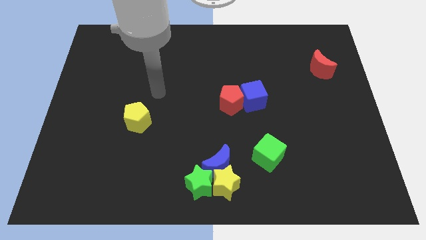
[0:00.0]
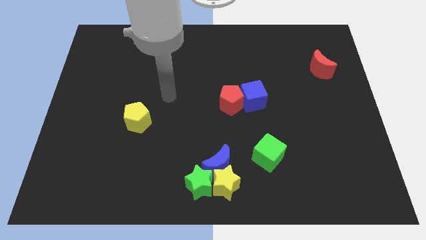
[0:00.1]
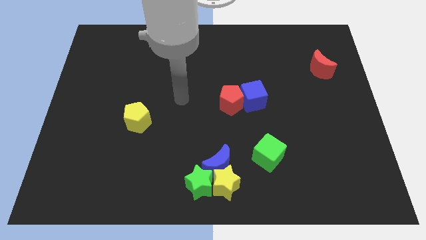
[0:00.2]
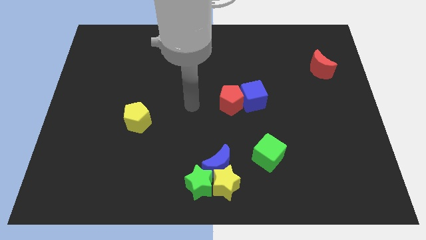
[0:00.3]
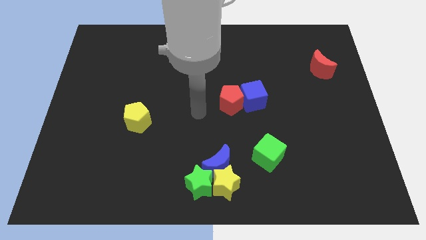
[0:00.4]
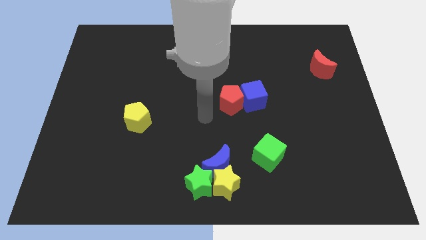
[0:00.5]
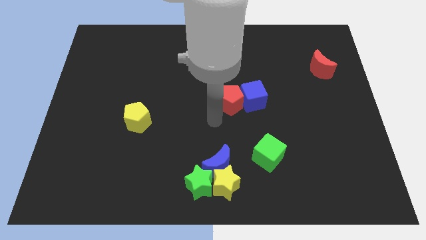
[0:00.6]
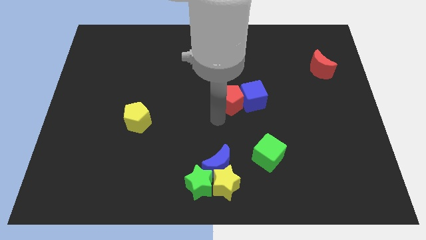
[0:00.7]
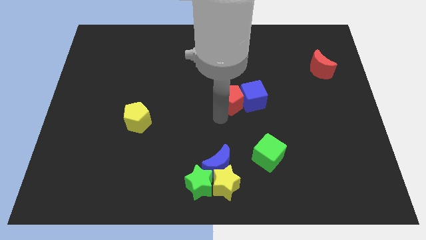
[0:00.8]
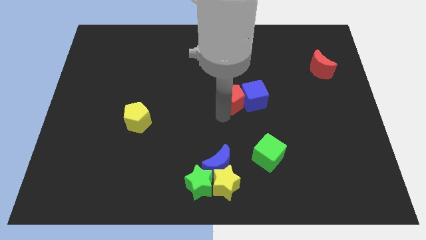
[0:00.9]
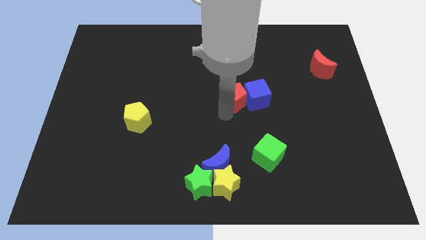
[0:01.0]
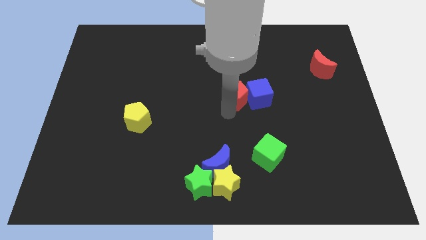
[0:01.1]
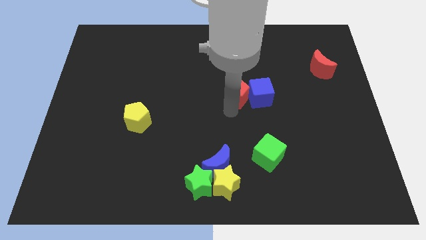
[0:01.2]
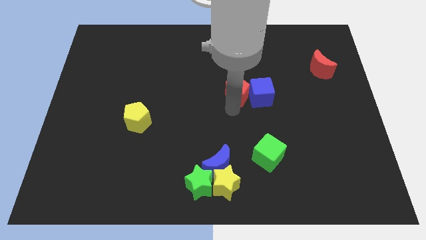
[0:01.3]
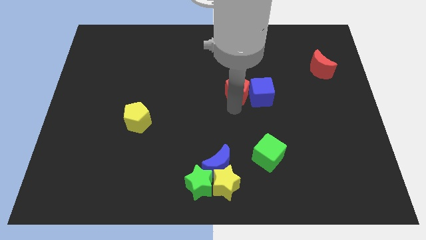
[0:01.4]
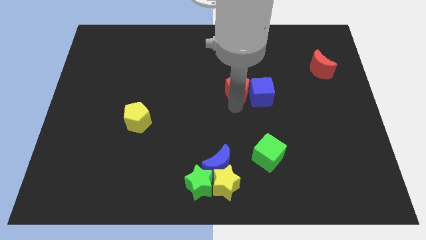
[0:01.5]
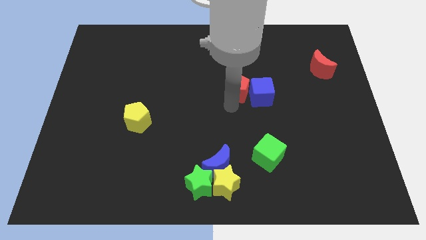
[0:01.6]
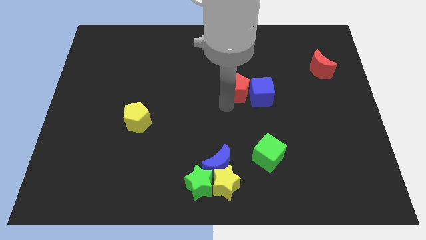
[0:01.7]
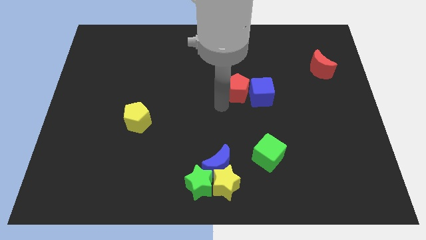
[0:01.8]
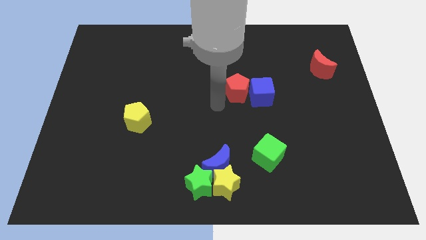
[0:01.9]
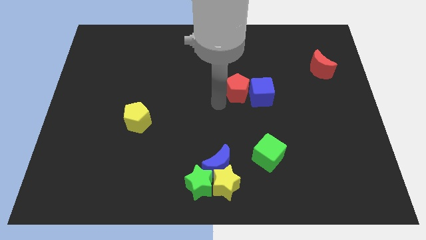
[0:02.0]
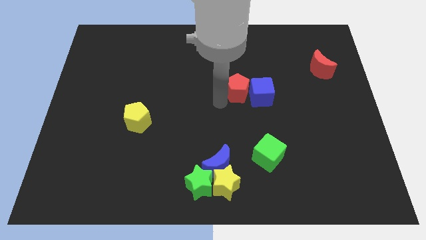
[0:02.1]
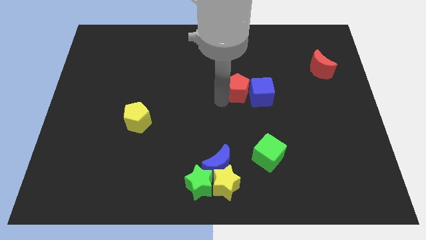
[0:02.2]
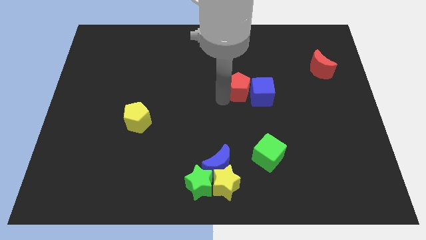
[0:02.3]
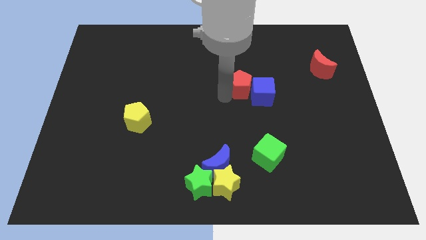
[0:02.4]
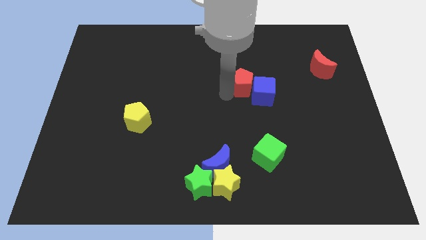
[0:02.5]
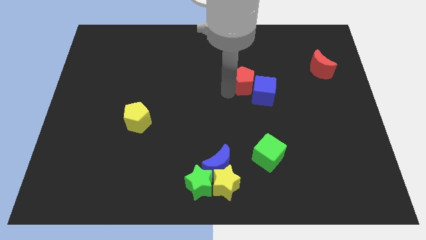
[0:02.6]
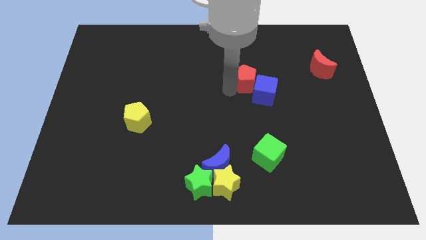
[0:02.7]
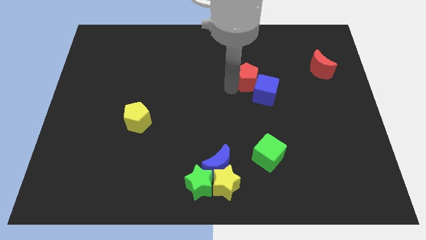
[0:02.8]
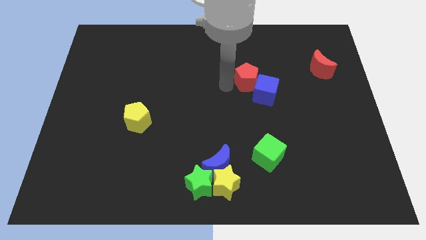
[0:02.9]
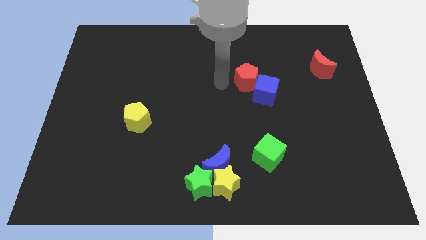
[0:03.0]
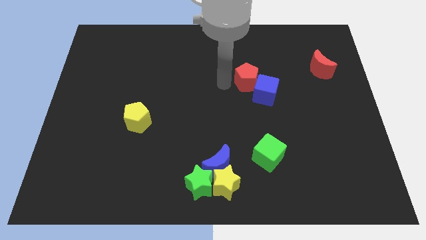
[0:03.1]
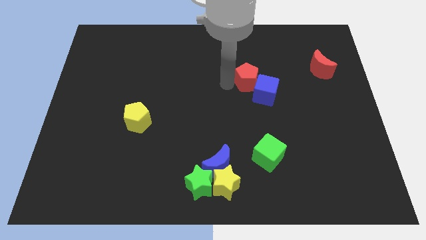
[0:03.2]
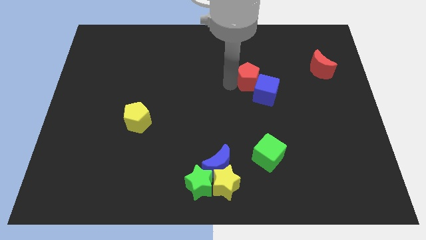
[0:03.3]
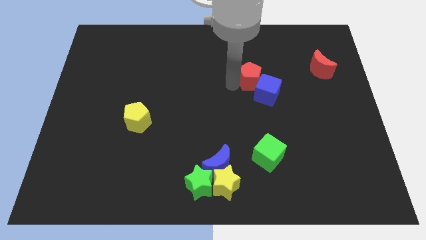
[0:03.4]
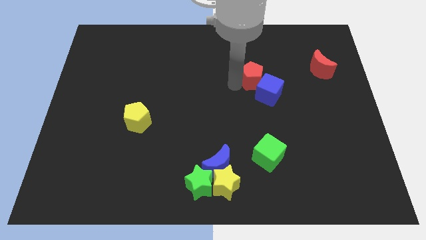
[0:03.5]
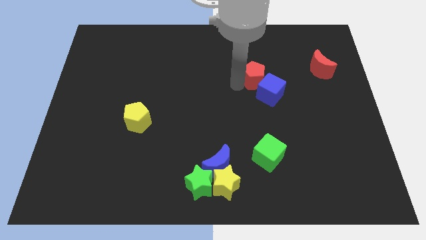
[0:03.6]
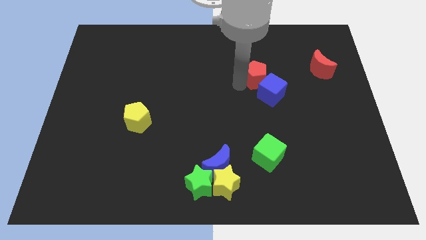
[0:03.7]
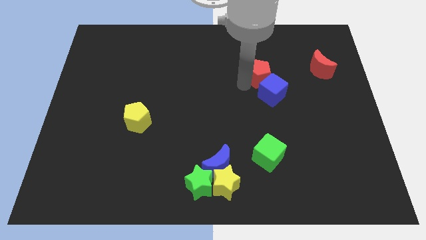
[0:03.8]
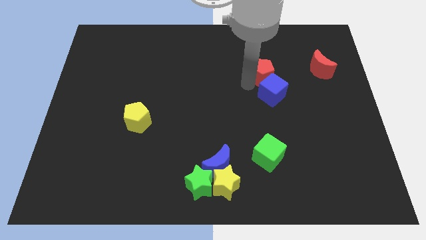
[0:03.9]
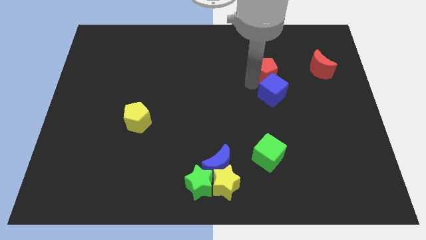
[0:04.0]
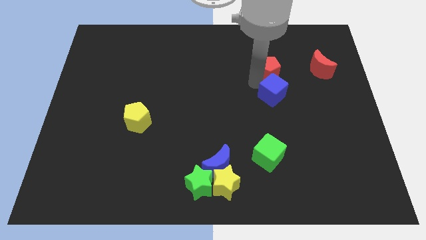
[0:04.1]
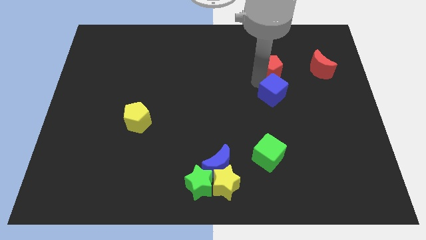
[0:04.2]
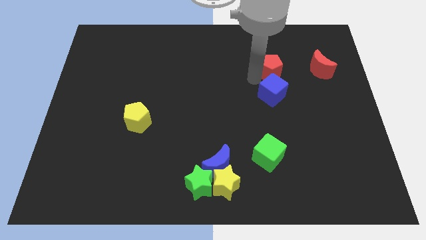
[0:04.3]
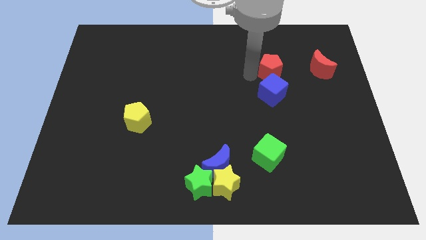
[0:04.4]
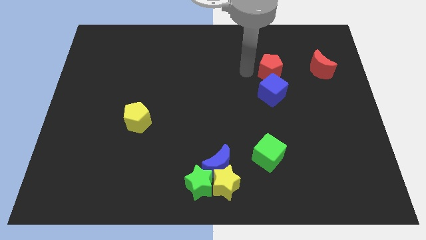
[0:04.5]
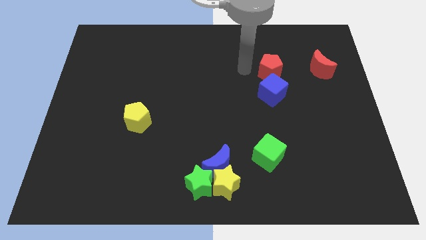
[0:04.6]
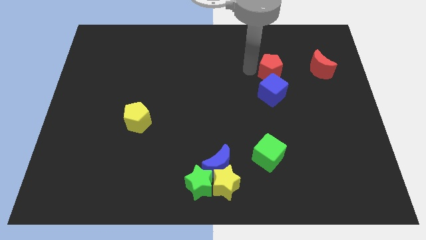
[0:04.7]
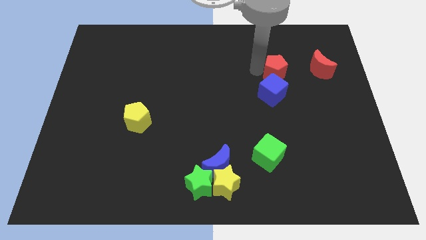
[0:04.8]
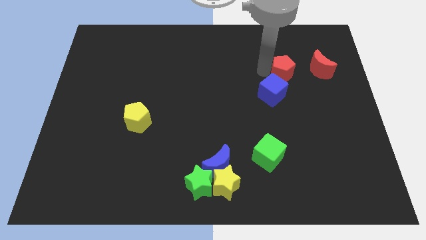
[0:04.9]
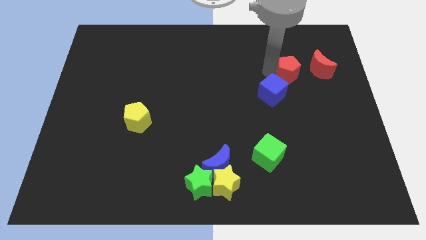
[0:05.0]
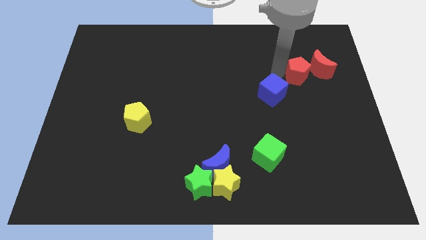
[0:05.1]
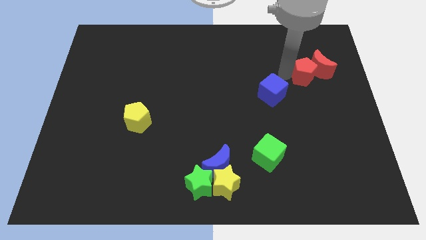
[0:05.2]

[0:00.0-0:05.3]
move the red pentagon next to the red moon

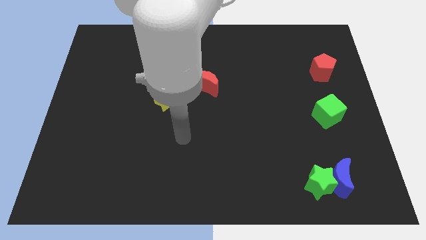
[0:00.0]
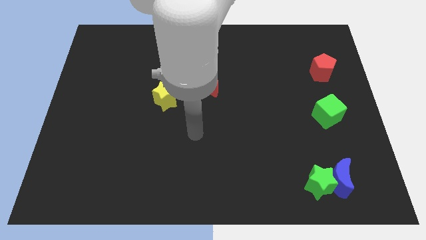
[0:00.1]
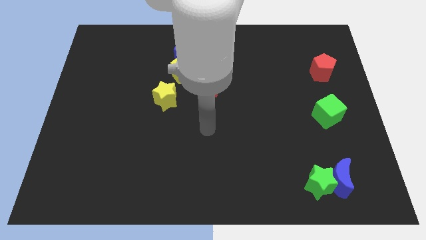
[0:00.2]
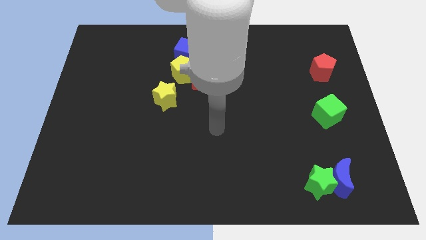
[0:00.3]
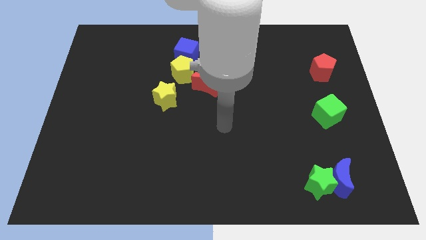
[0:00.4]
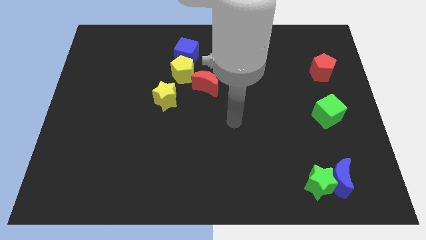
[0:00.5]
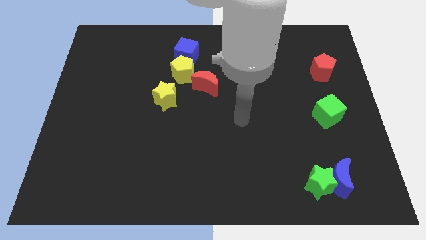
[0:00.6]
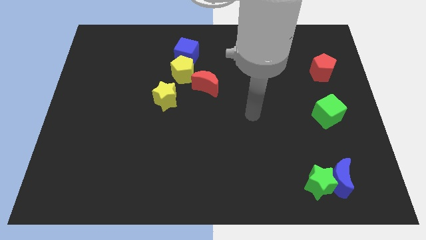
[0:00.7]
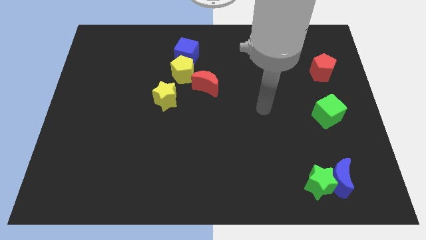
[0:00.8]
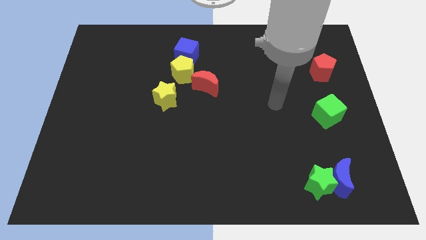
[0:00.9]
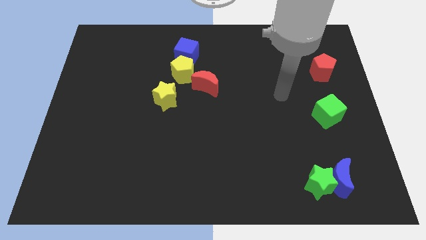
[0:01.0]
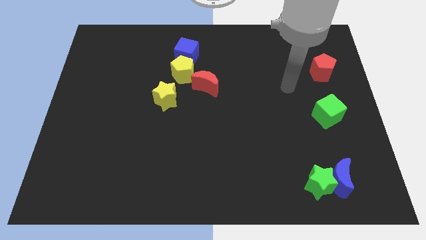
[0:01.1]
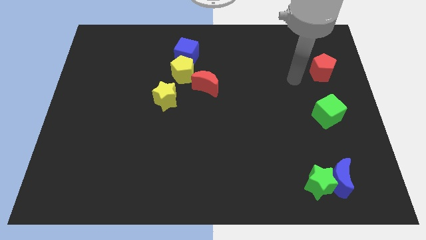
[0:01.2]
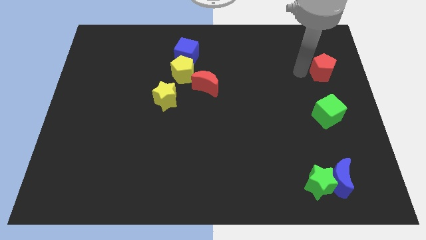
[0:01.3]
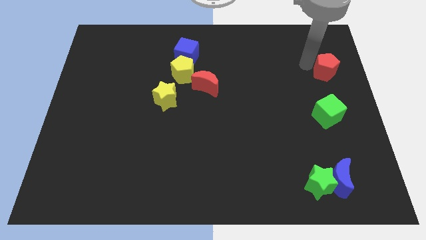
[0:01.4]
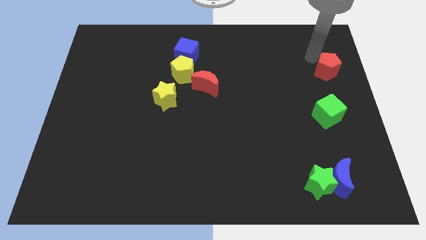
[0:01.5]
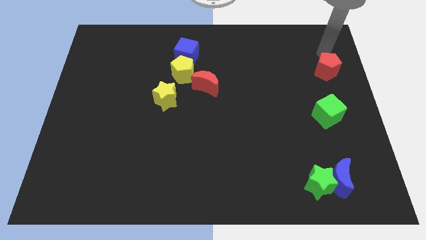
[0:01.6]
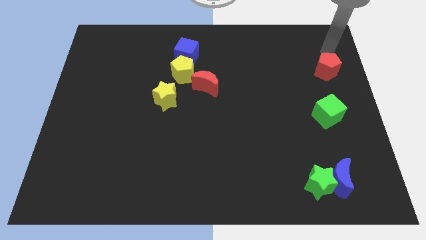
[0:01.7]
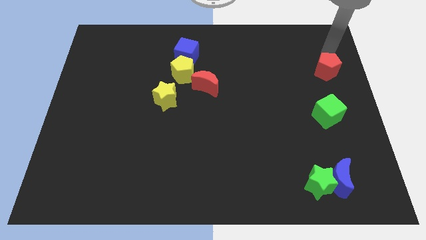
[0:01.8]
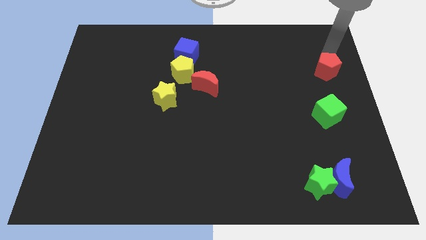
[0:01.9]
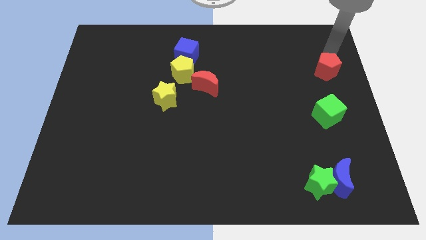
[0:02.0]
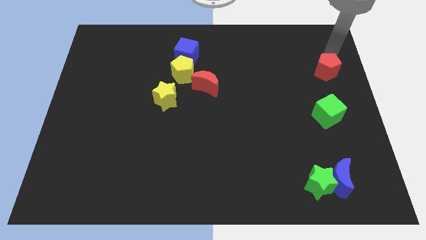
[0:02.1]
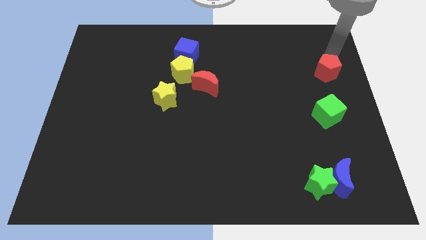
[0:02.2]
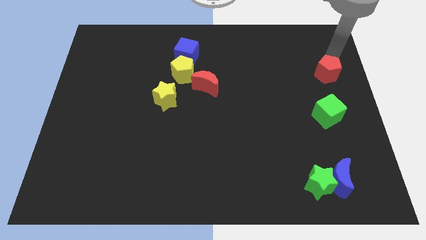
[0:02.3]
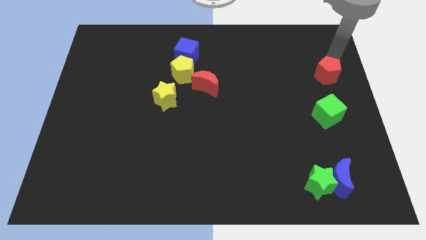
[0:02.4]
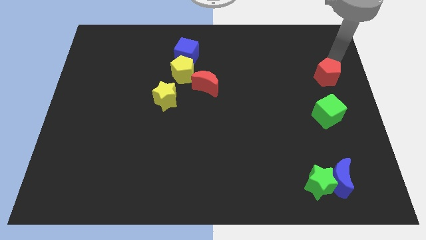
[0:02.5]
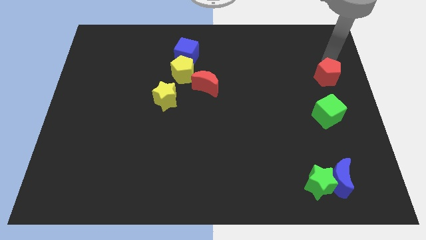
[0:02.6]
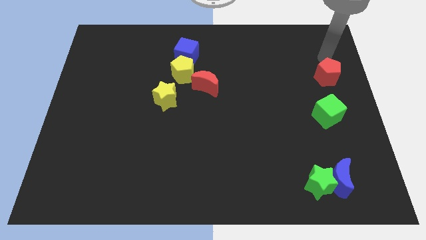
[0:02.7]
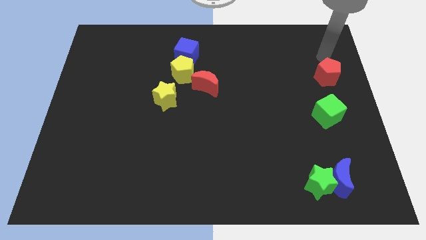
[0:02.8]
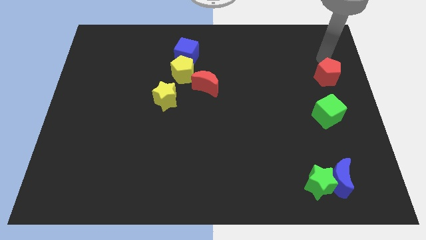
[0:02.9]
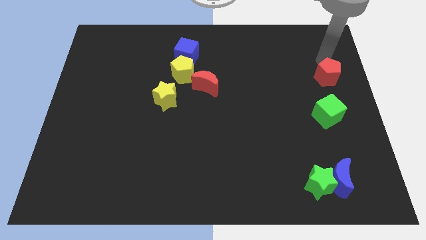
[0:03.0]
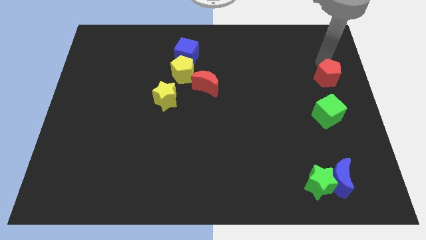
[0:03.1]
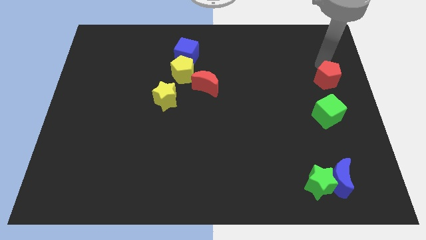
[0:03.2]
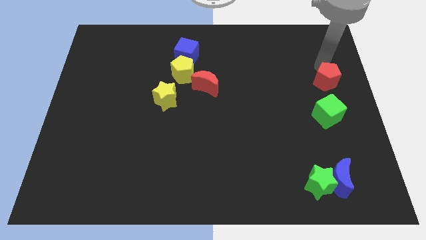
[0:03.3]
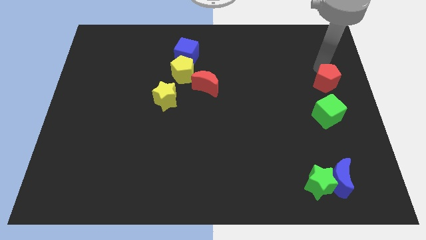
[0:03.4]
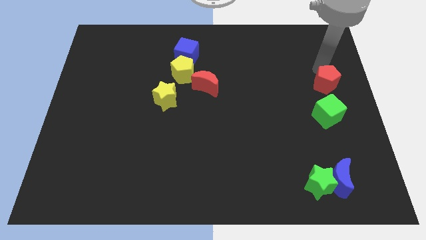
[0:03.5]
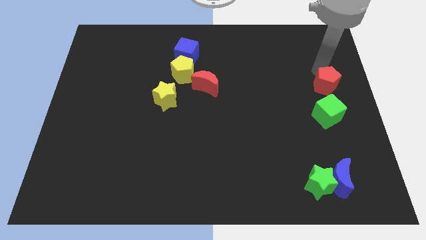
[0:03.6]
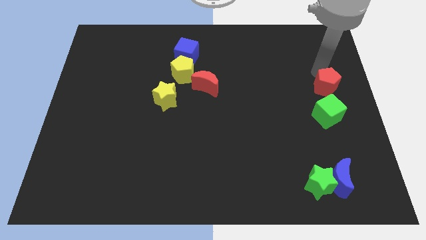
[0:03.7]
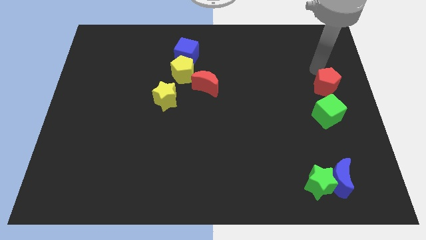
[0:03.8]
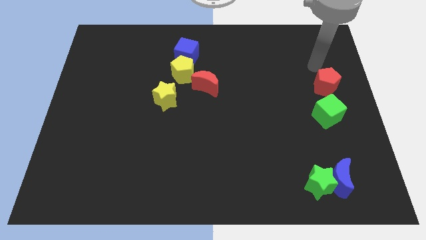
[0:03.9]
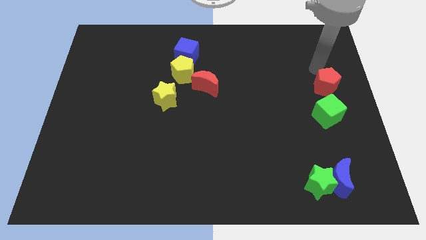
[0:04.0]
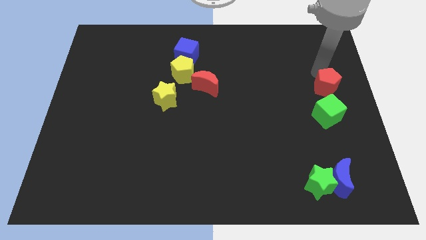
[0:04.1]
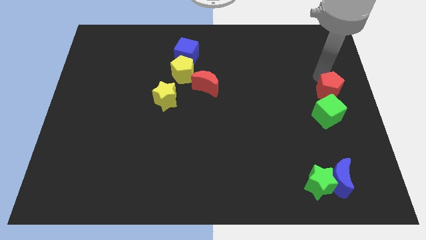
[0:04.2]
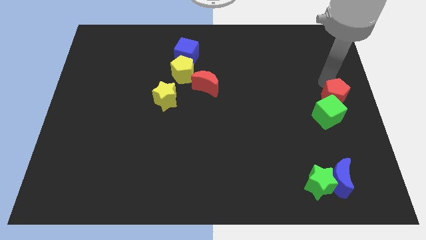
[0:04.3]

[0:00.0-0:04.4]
move the red pentagon close to the green cube
